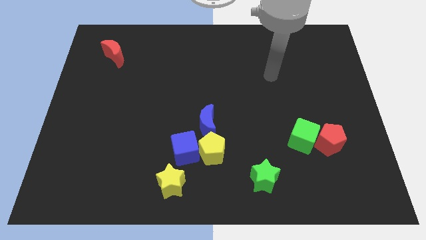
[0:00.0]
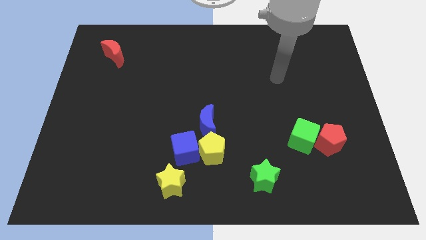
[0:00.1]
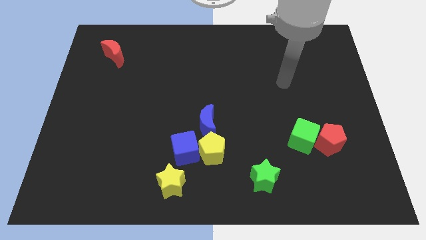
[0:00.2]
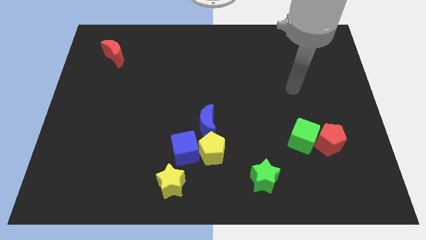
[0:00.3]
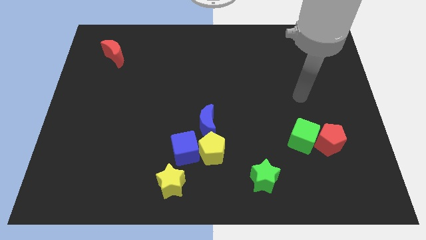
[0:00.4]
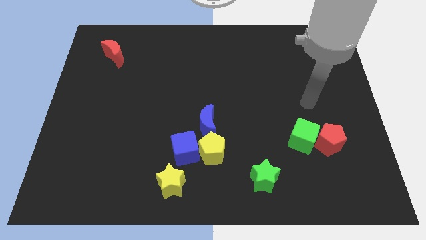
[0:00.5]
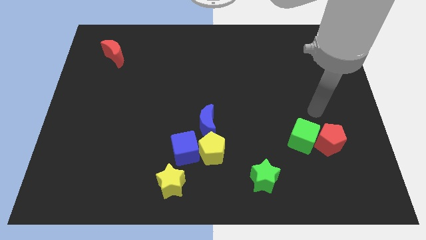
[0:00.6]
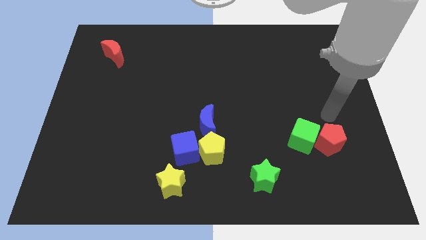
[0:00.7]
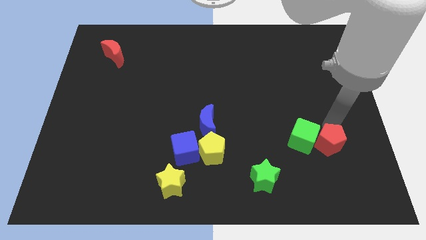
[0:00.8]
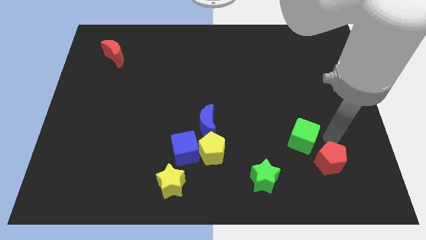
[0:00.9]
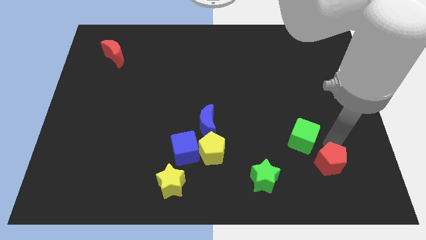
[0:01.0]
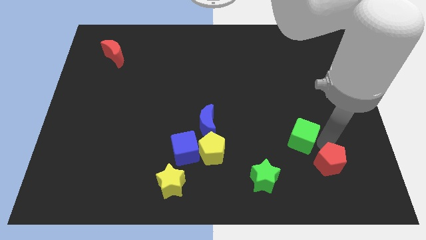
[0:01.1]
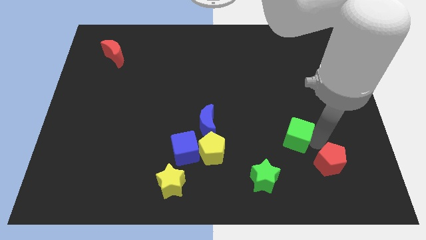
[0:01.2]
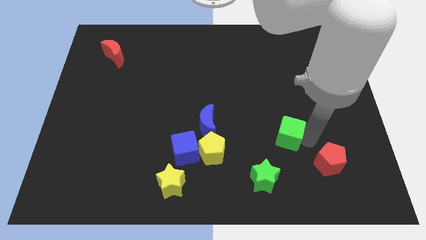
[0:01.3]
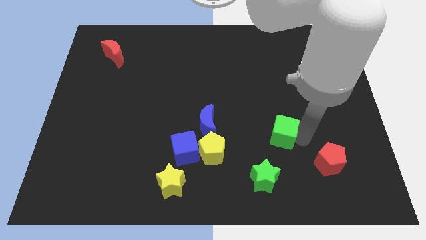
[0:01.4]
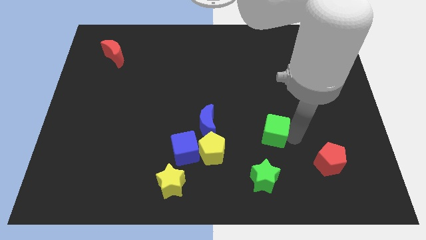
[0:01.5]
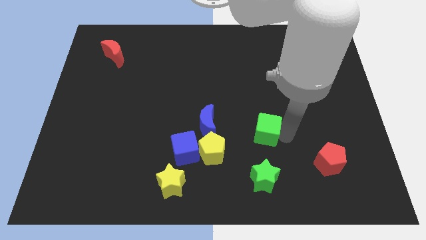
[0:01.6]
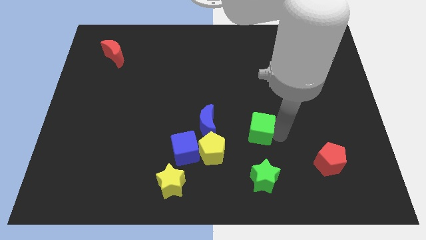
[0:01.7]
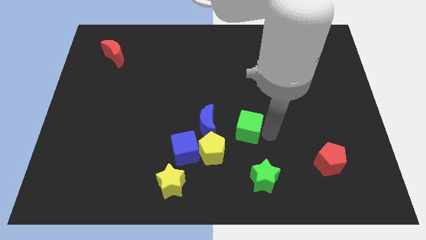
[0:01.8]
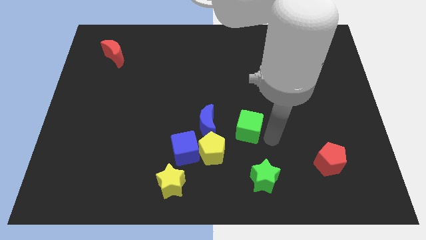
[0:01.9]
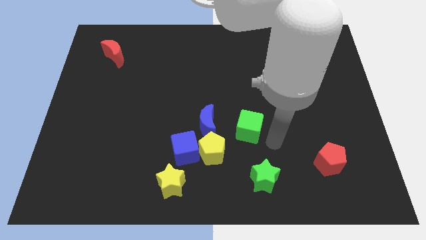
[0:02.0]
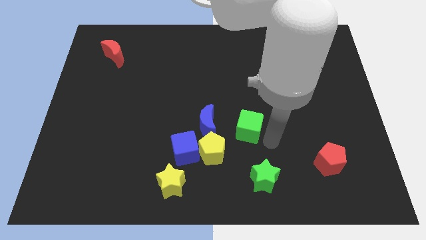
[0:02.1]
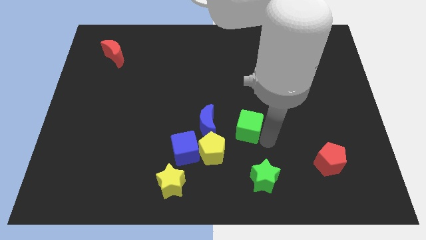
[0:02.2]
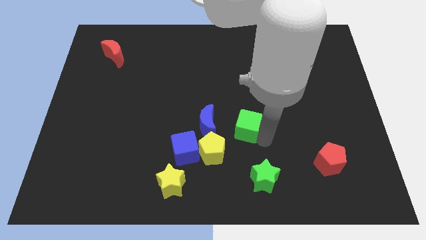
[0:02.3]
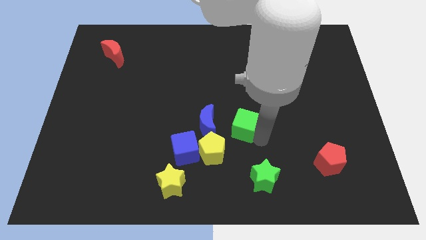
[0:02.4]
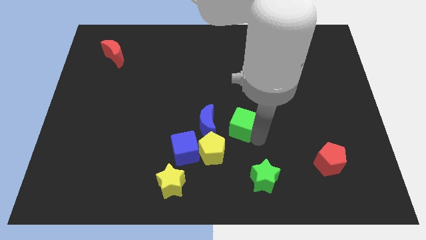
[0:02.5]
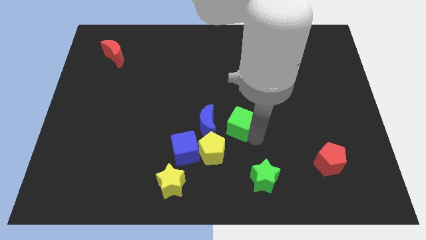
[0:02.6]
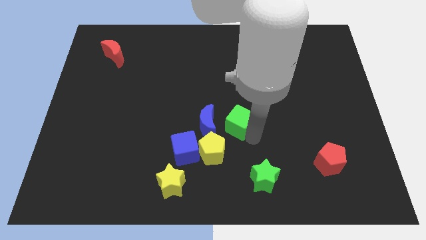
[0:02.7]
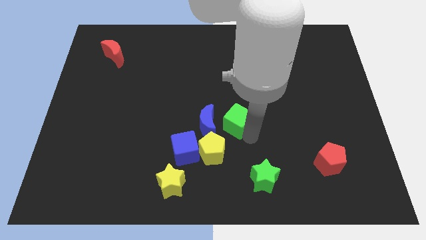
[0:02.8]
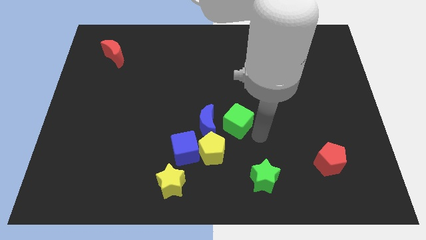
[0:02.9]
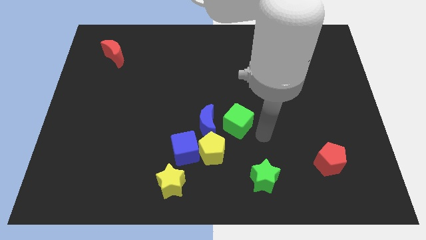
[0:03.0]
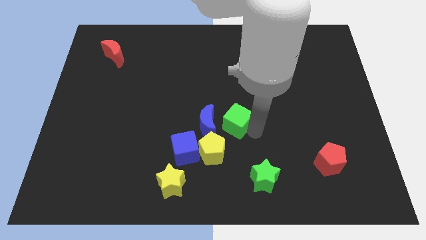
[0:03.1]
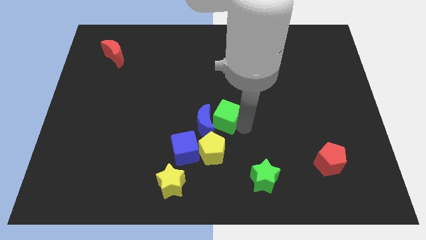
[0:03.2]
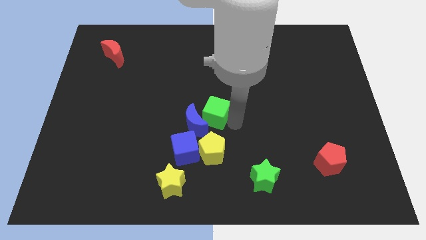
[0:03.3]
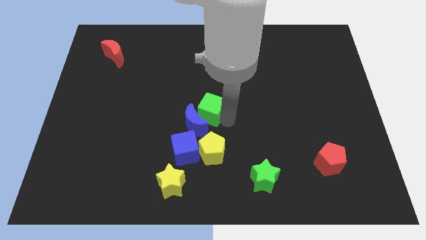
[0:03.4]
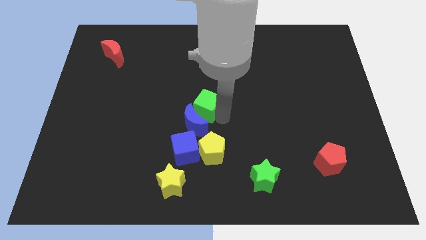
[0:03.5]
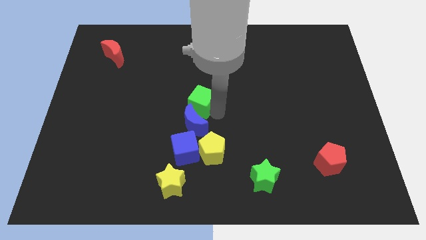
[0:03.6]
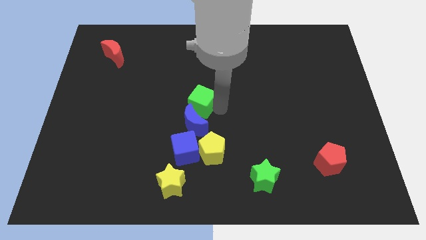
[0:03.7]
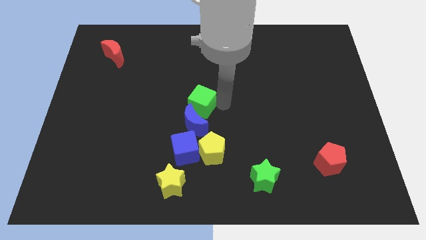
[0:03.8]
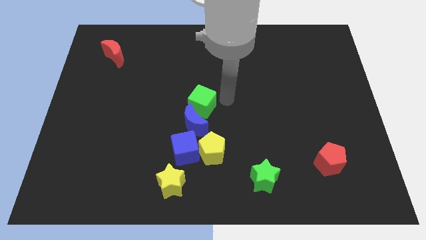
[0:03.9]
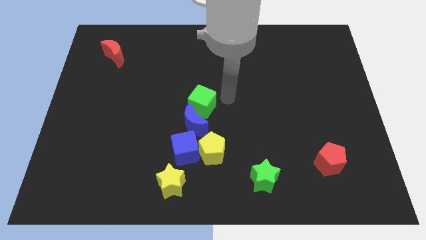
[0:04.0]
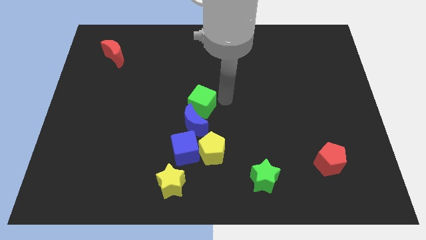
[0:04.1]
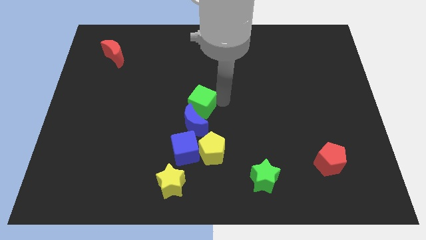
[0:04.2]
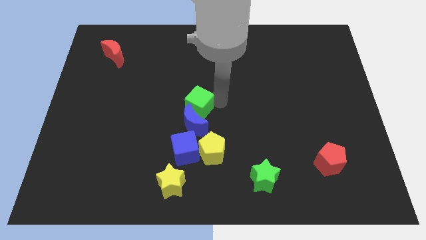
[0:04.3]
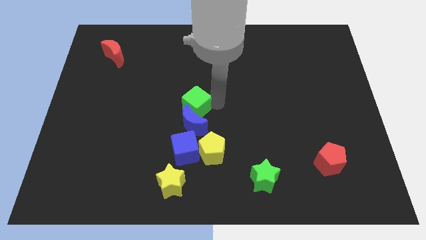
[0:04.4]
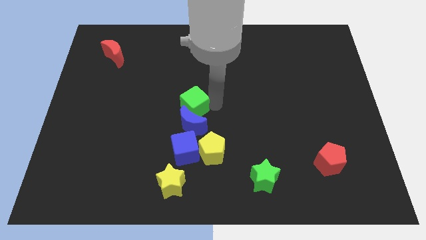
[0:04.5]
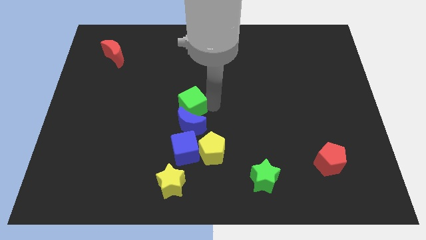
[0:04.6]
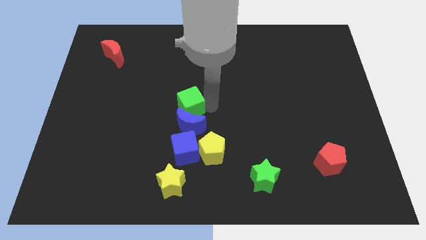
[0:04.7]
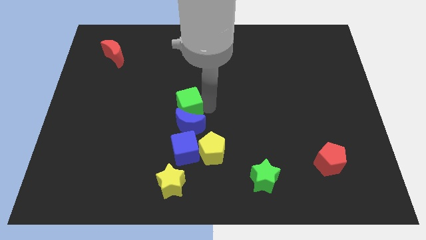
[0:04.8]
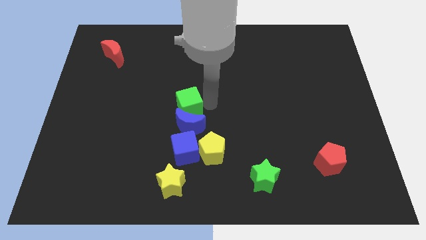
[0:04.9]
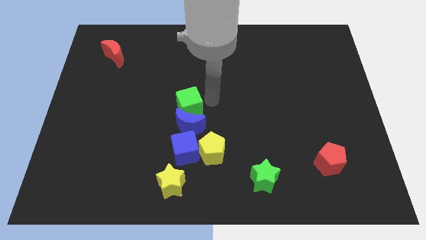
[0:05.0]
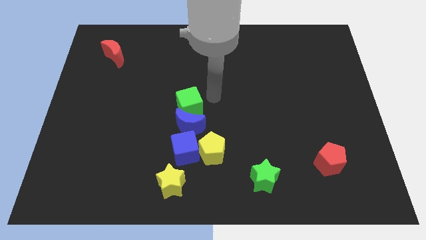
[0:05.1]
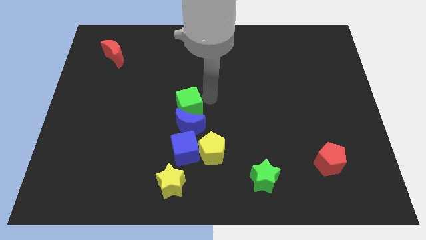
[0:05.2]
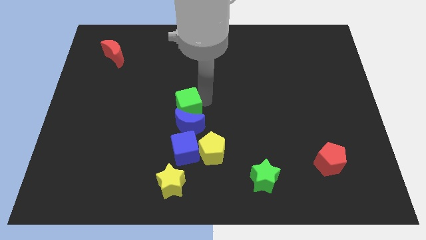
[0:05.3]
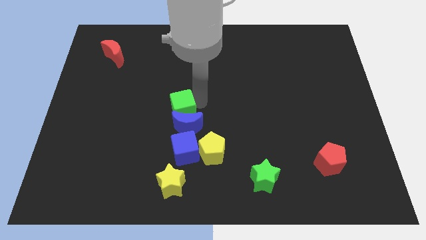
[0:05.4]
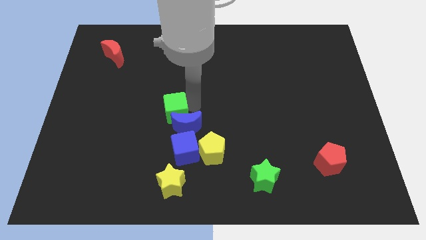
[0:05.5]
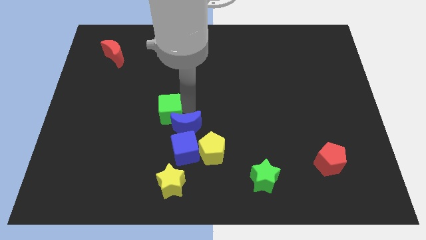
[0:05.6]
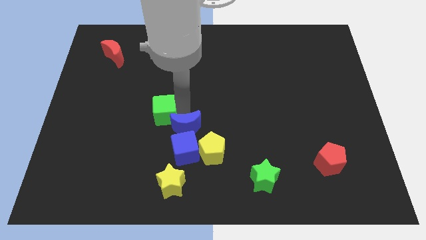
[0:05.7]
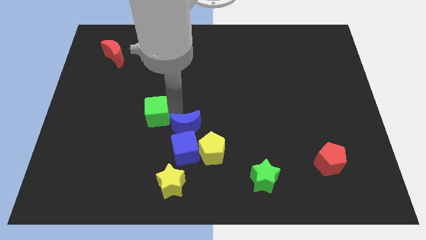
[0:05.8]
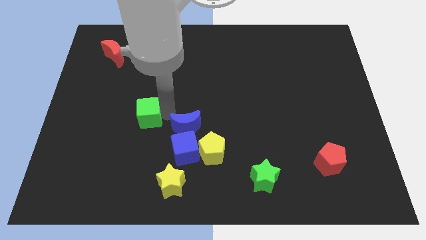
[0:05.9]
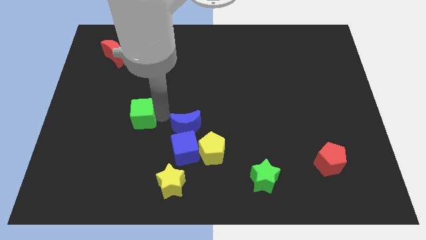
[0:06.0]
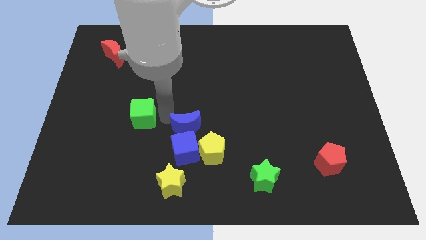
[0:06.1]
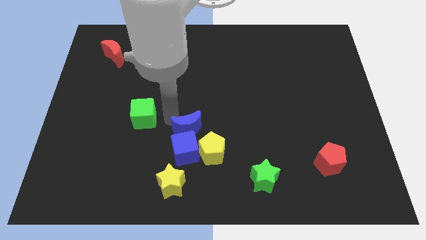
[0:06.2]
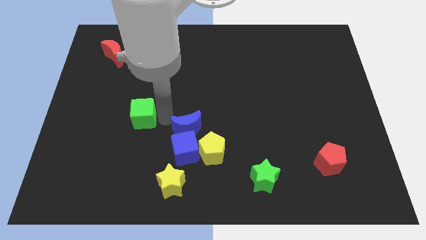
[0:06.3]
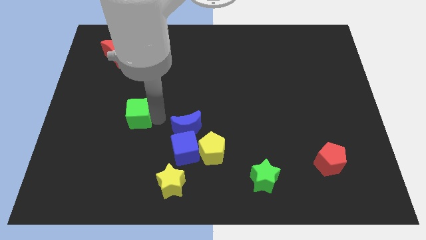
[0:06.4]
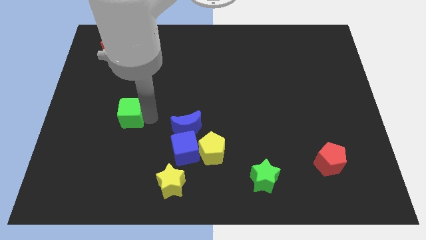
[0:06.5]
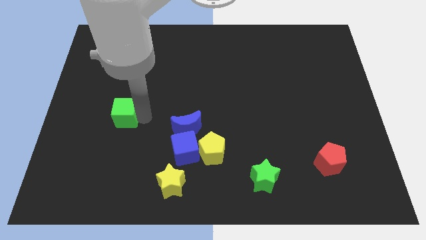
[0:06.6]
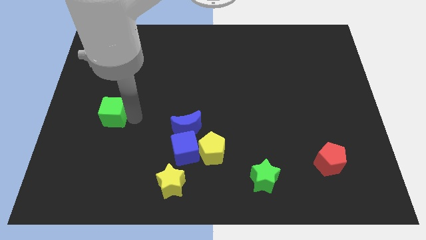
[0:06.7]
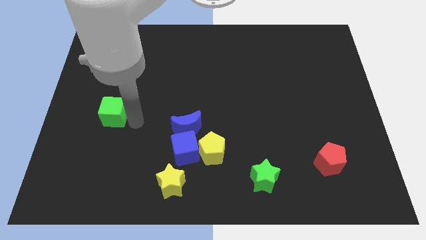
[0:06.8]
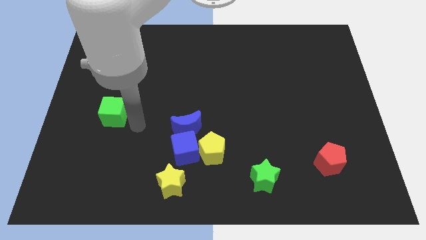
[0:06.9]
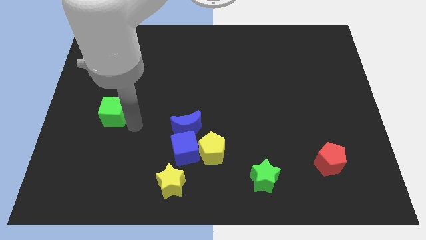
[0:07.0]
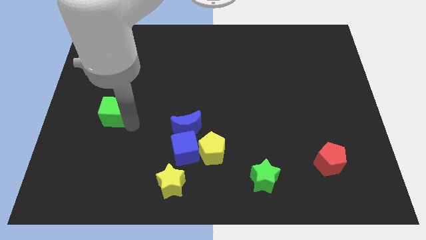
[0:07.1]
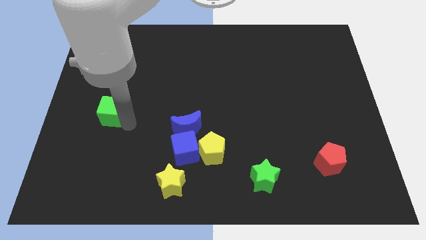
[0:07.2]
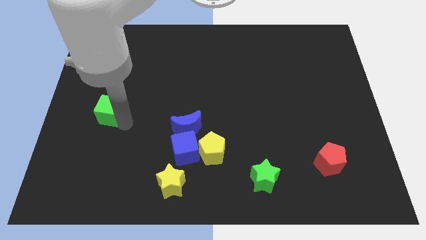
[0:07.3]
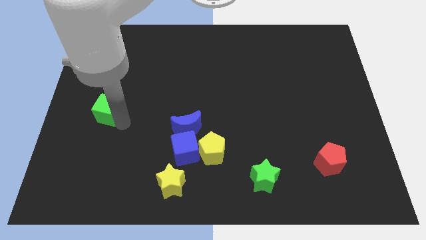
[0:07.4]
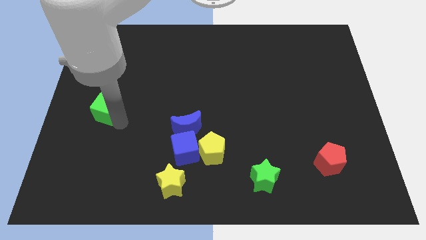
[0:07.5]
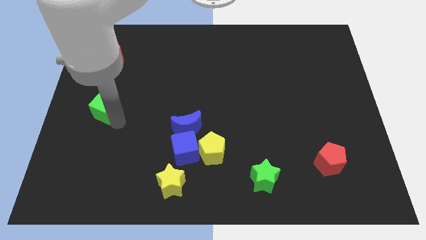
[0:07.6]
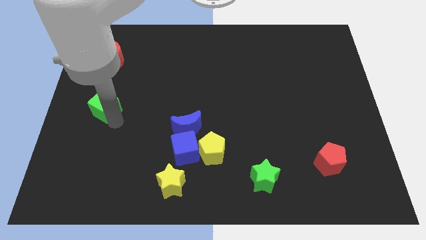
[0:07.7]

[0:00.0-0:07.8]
push the green cube to the center left

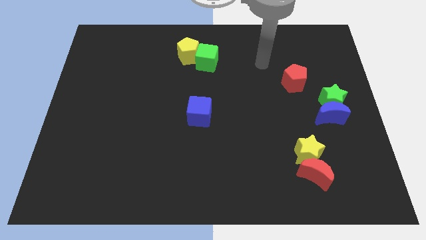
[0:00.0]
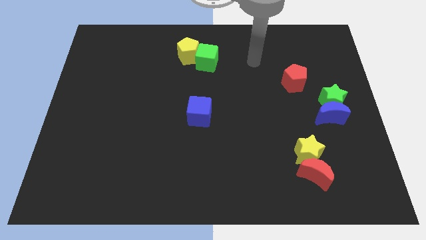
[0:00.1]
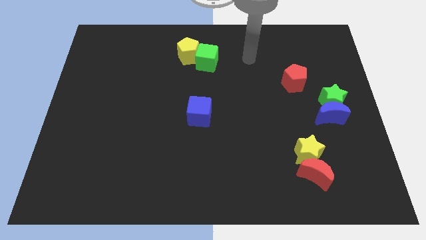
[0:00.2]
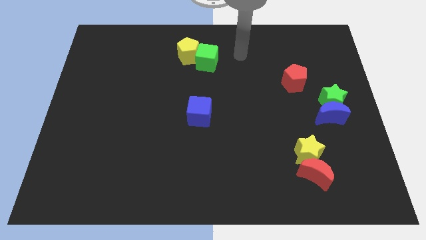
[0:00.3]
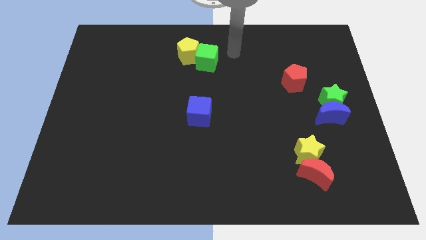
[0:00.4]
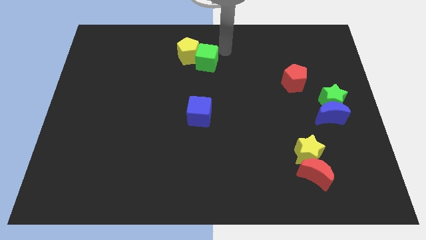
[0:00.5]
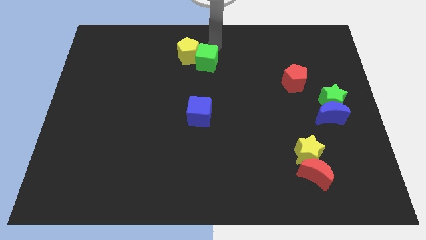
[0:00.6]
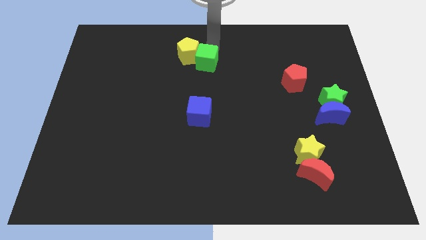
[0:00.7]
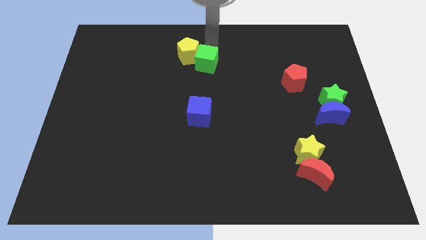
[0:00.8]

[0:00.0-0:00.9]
push the green cube to the middle
